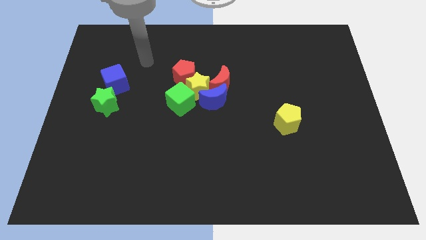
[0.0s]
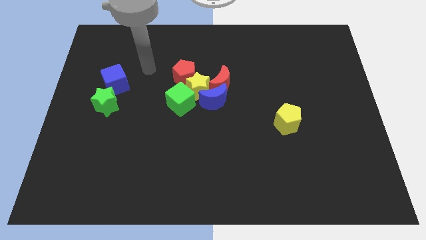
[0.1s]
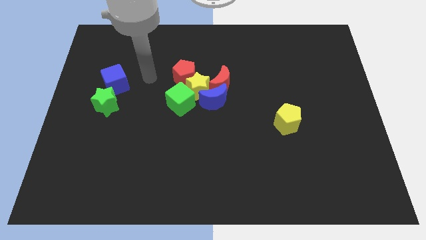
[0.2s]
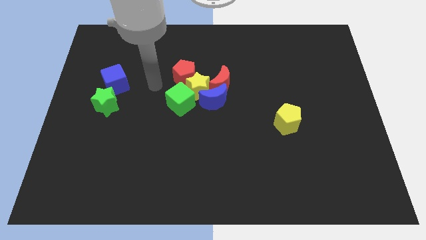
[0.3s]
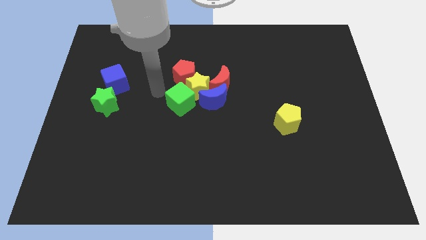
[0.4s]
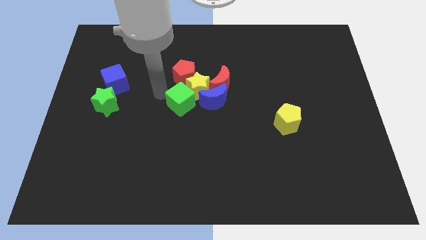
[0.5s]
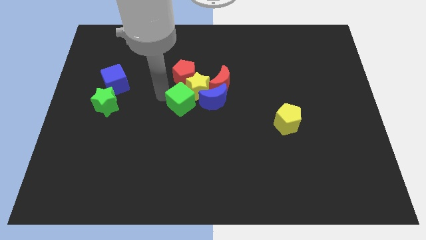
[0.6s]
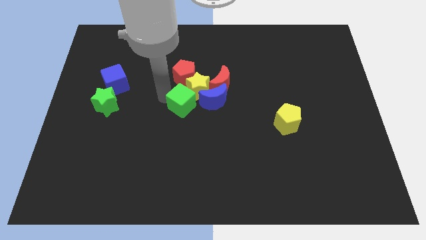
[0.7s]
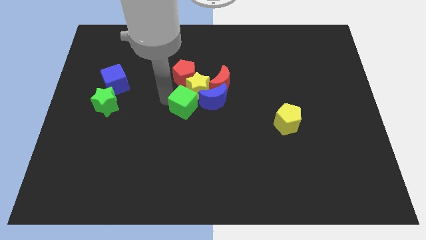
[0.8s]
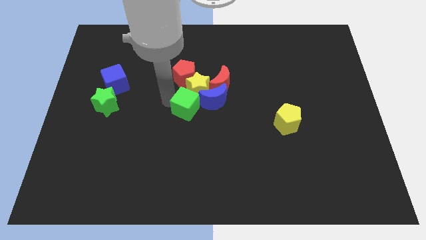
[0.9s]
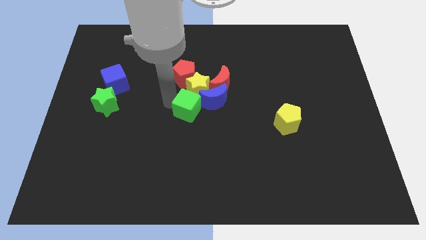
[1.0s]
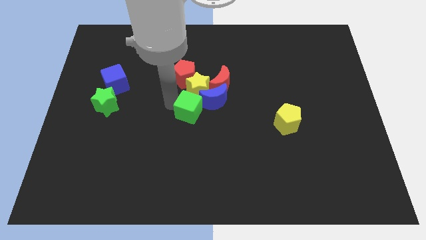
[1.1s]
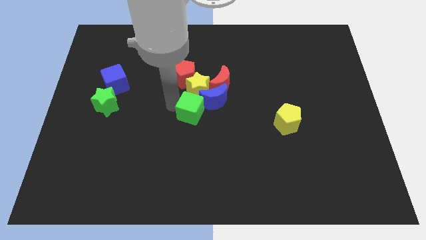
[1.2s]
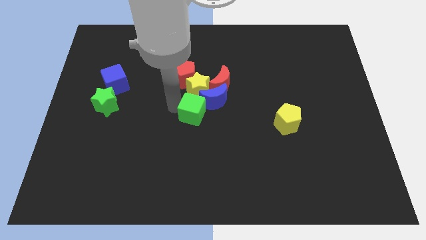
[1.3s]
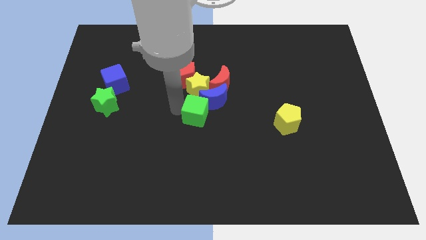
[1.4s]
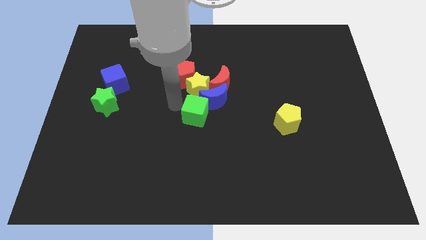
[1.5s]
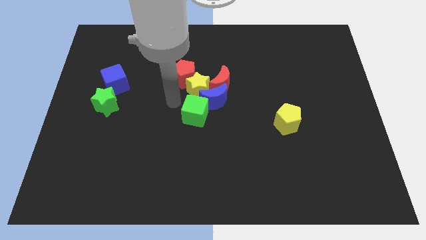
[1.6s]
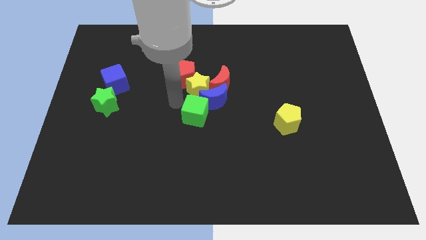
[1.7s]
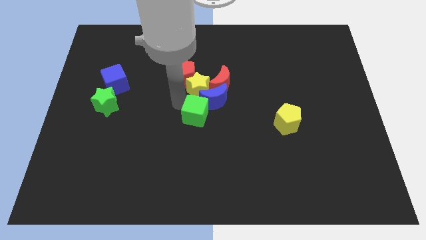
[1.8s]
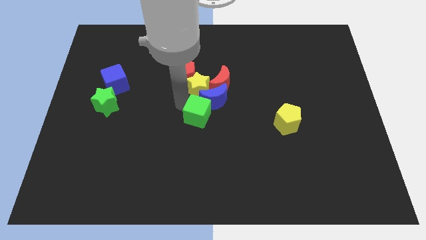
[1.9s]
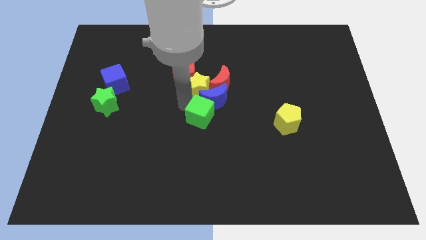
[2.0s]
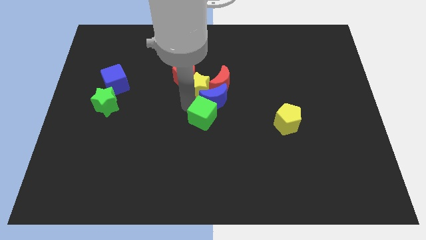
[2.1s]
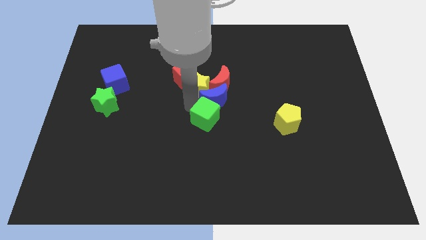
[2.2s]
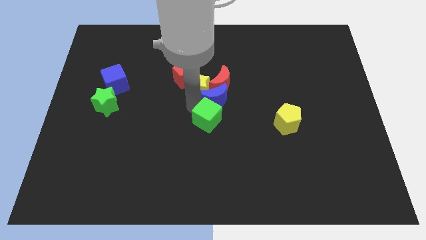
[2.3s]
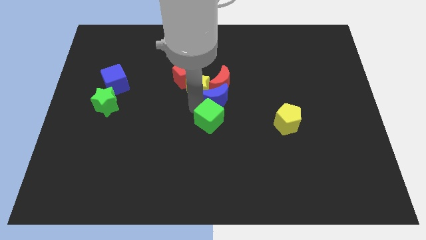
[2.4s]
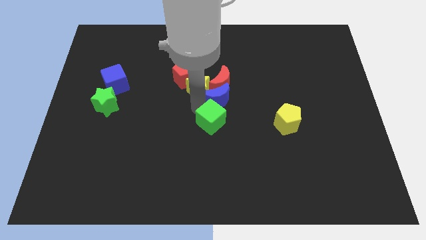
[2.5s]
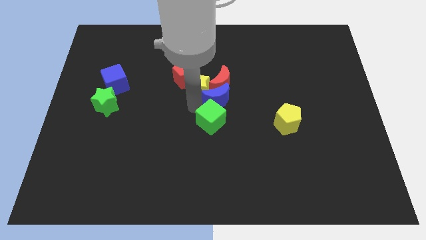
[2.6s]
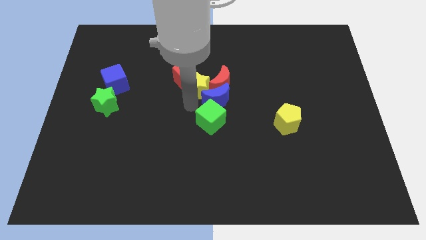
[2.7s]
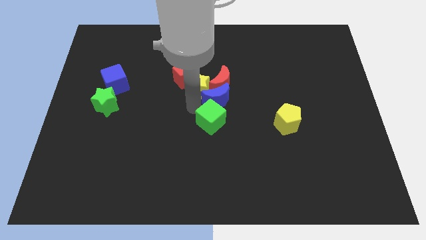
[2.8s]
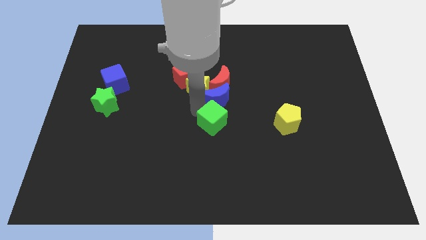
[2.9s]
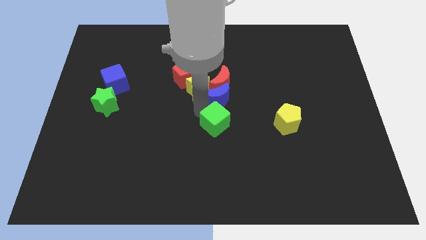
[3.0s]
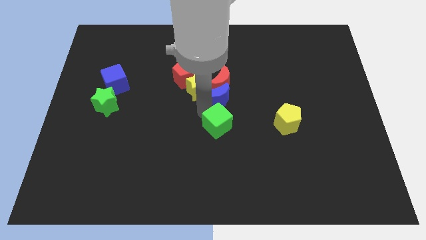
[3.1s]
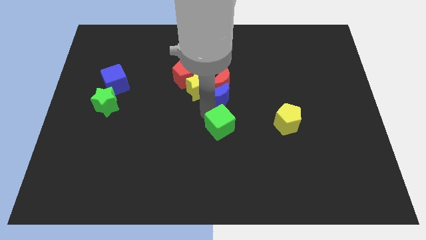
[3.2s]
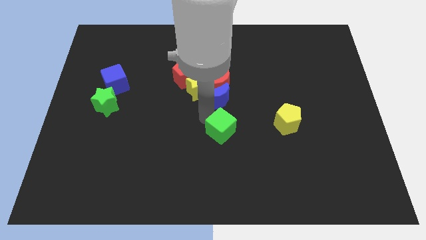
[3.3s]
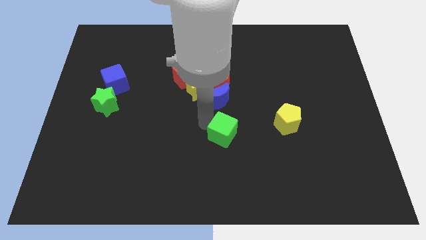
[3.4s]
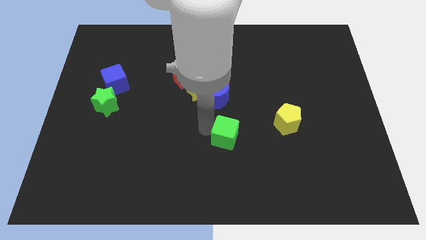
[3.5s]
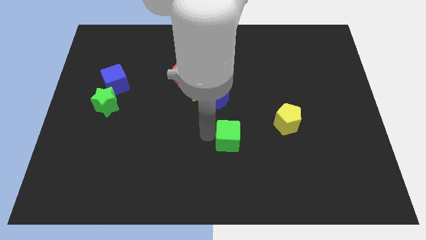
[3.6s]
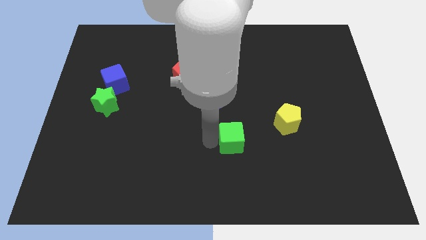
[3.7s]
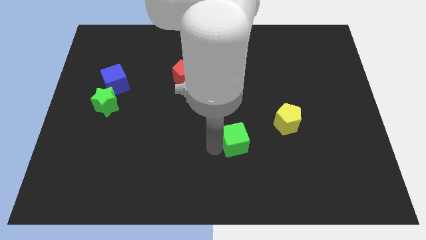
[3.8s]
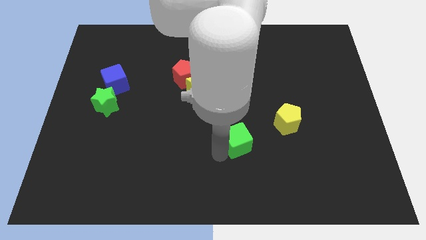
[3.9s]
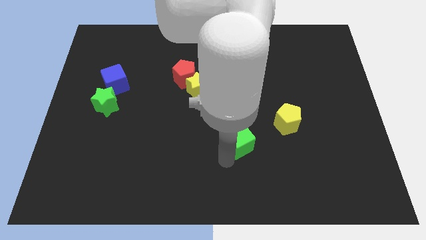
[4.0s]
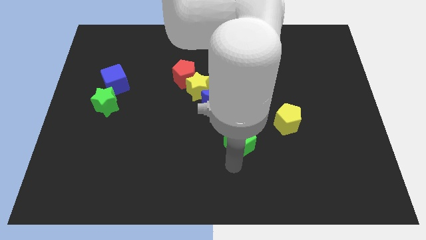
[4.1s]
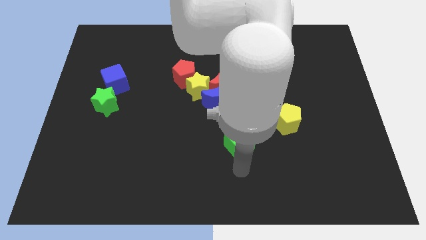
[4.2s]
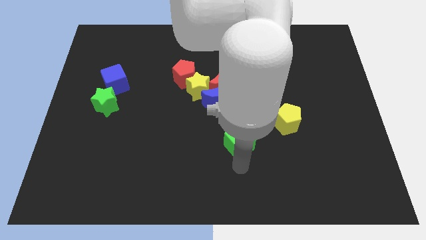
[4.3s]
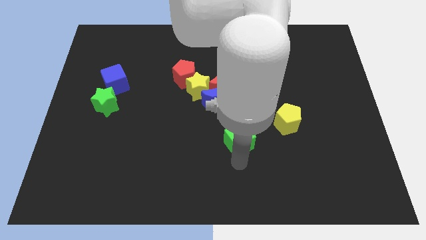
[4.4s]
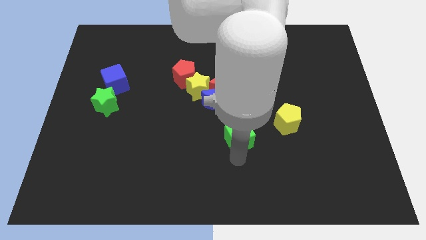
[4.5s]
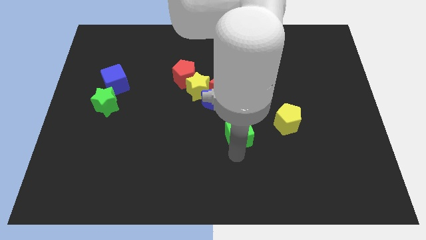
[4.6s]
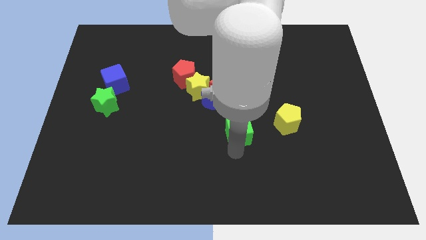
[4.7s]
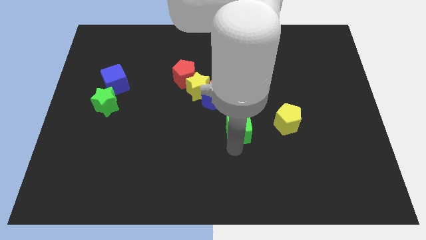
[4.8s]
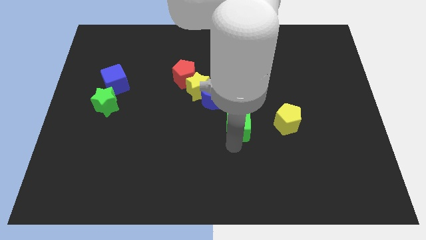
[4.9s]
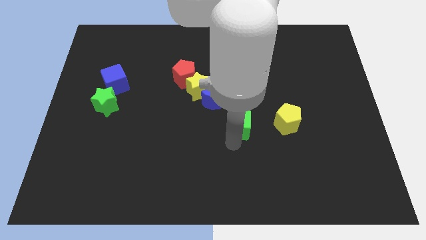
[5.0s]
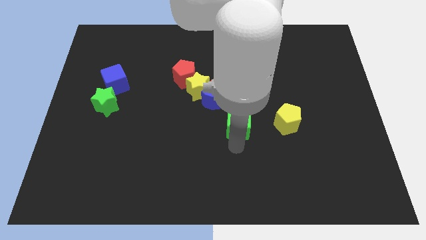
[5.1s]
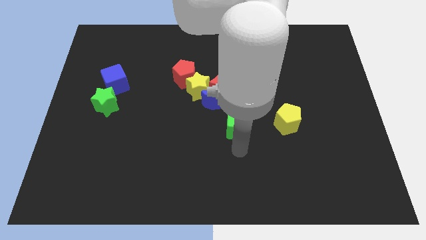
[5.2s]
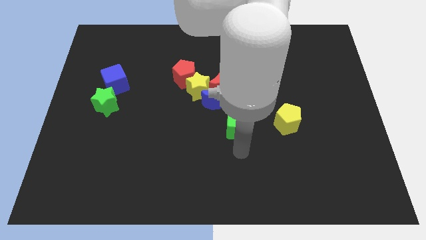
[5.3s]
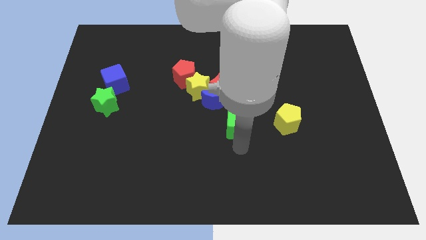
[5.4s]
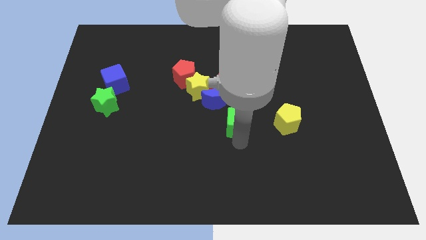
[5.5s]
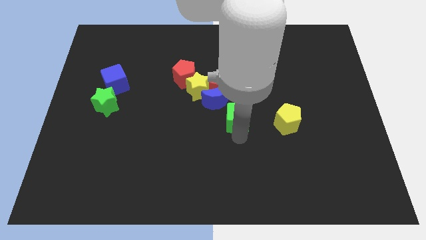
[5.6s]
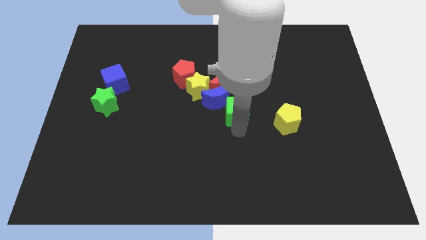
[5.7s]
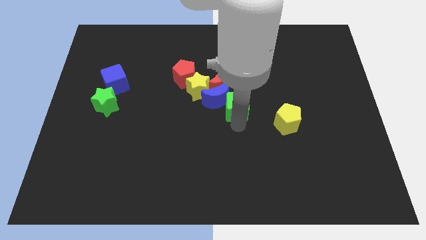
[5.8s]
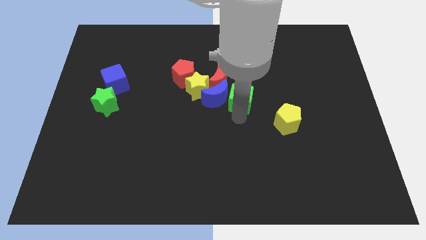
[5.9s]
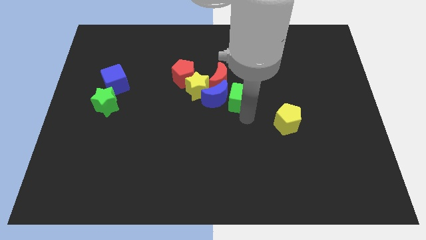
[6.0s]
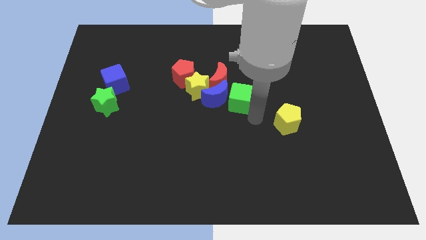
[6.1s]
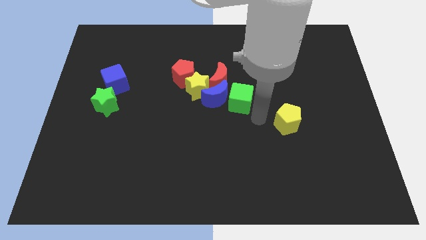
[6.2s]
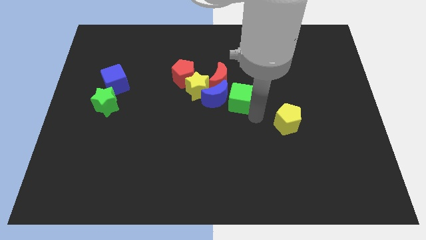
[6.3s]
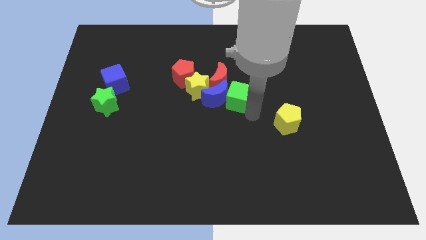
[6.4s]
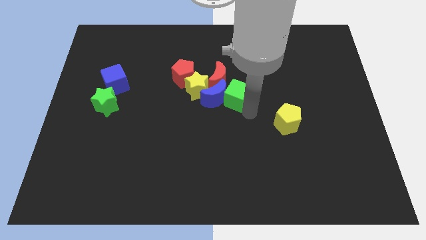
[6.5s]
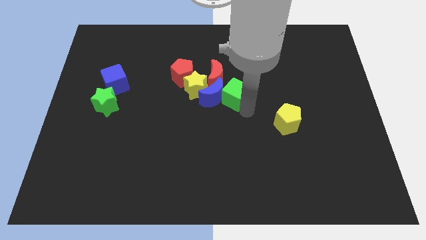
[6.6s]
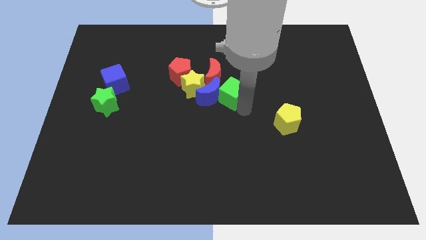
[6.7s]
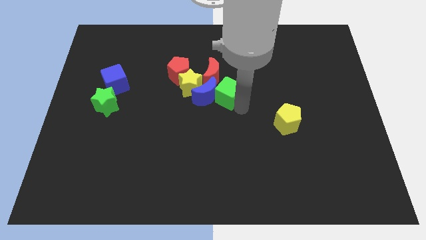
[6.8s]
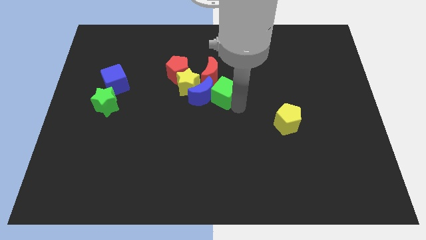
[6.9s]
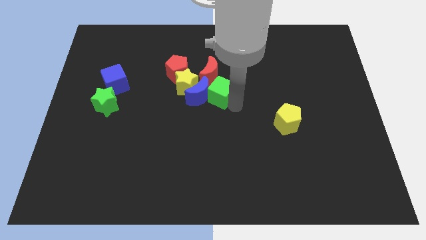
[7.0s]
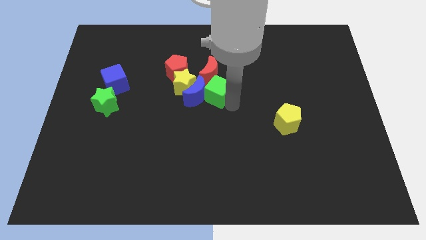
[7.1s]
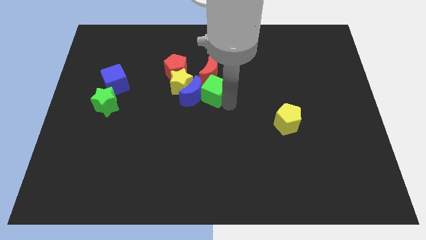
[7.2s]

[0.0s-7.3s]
put the green cube to the red moon
